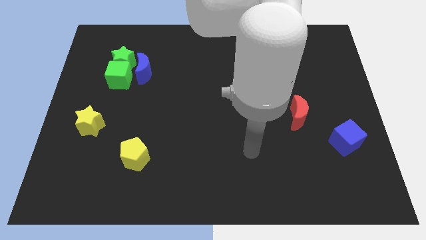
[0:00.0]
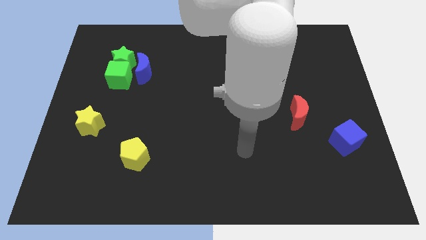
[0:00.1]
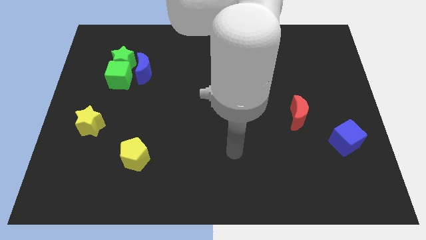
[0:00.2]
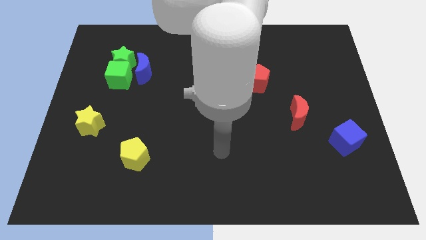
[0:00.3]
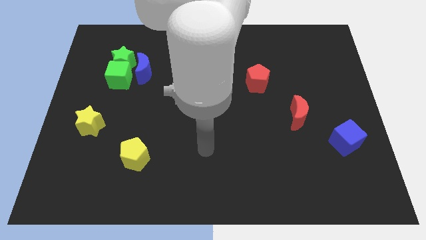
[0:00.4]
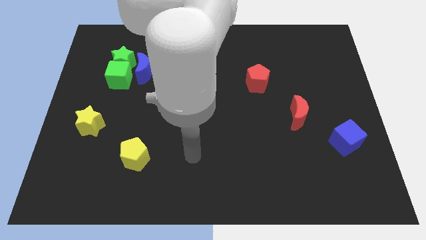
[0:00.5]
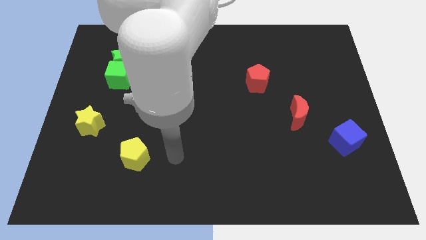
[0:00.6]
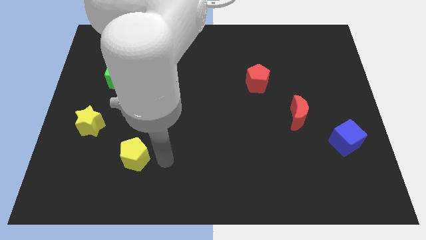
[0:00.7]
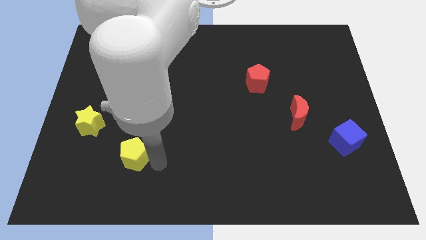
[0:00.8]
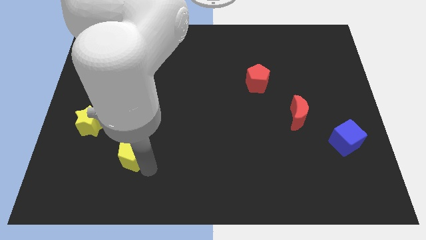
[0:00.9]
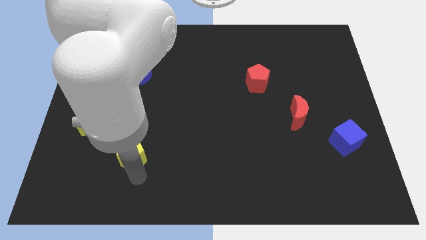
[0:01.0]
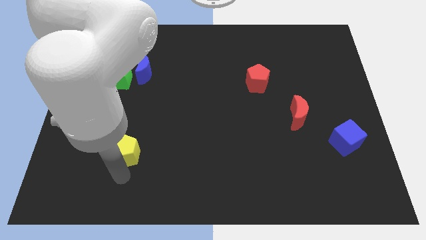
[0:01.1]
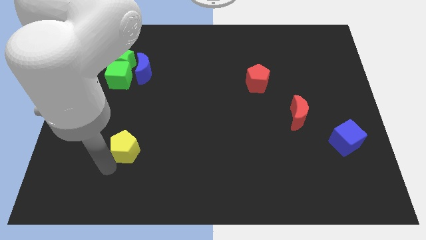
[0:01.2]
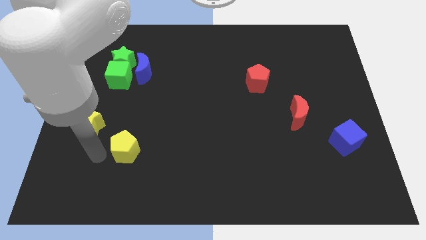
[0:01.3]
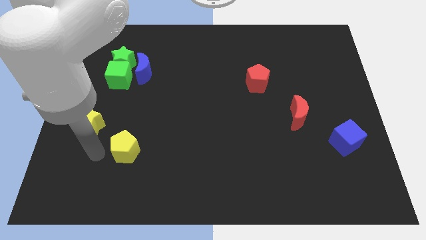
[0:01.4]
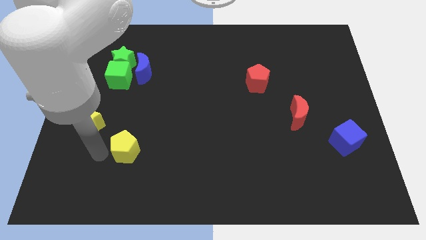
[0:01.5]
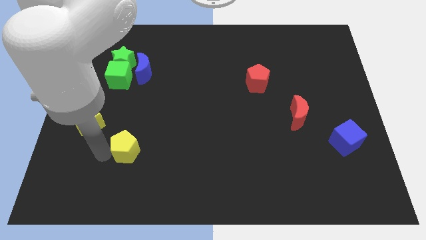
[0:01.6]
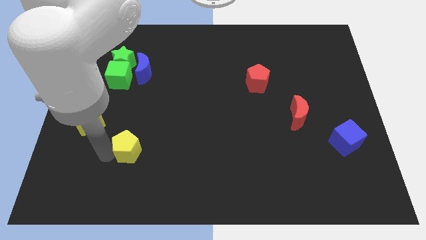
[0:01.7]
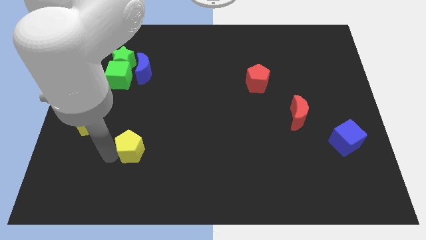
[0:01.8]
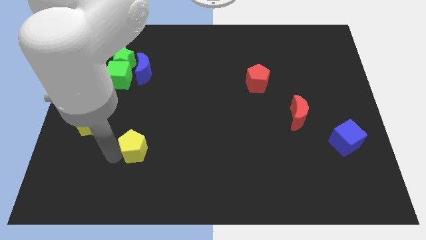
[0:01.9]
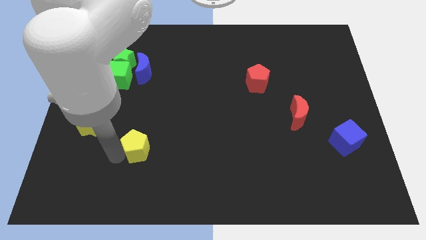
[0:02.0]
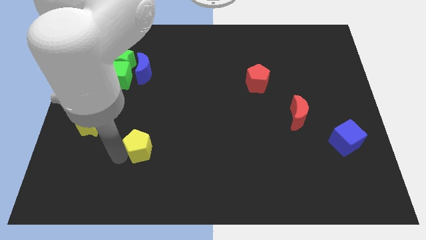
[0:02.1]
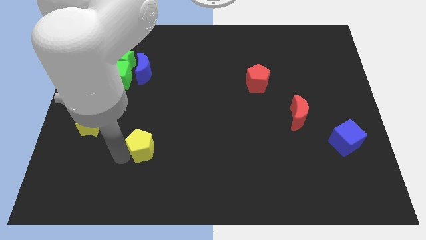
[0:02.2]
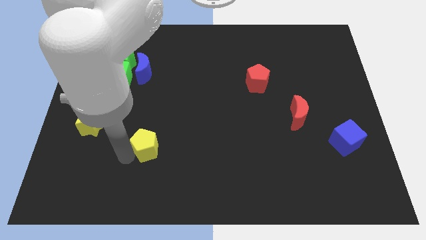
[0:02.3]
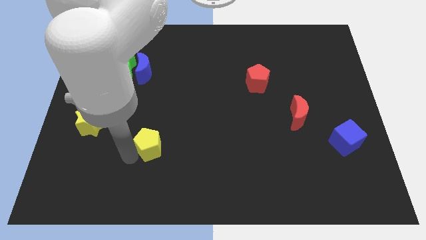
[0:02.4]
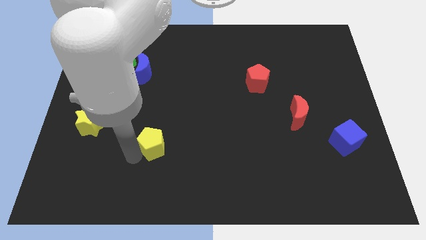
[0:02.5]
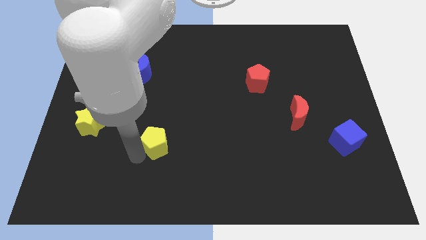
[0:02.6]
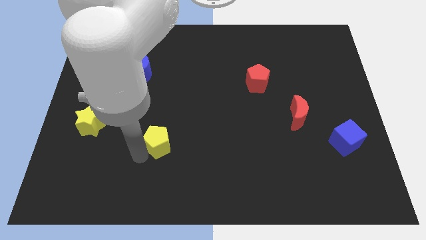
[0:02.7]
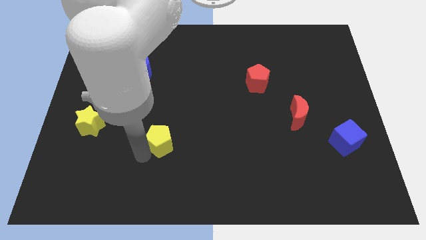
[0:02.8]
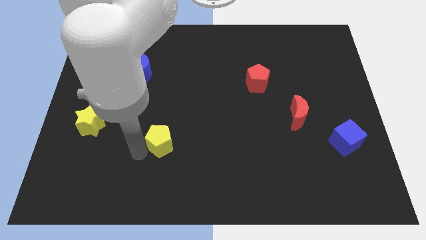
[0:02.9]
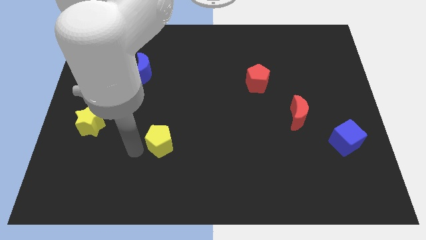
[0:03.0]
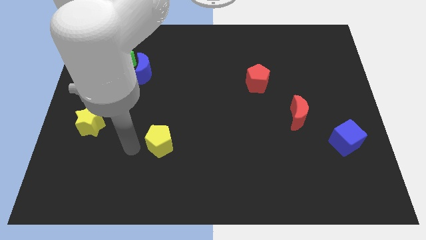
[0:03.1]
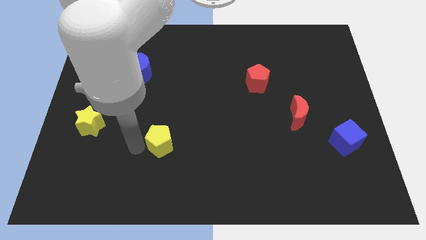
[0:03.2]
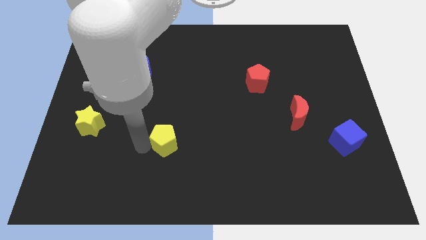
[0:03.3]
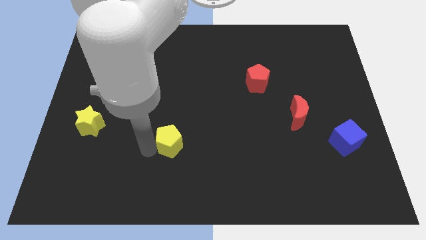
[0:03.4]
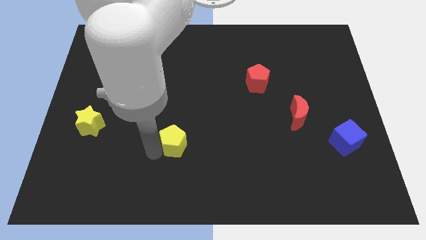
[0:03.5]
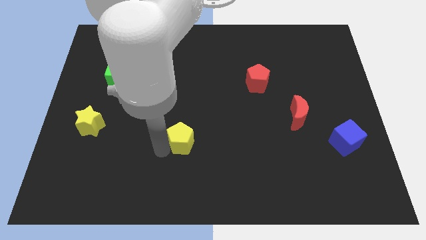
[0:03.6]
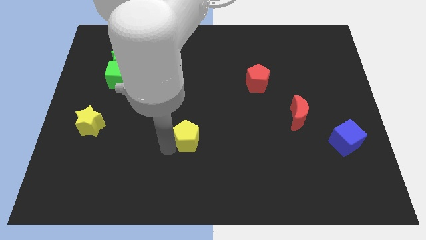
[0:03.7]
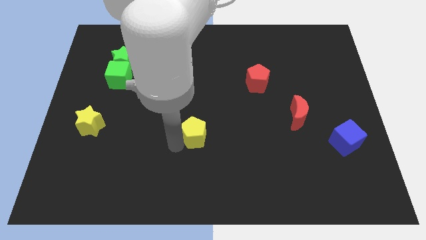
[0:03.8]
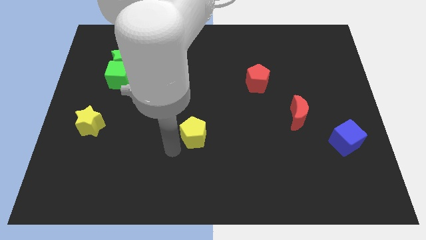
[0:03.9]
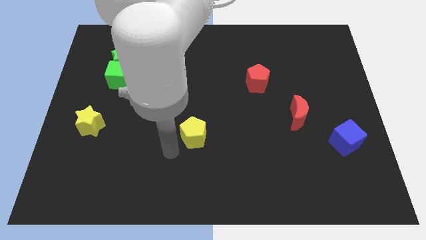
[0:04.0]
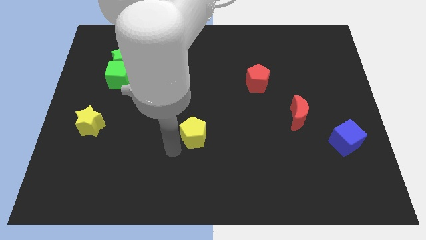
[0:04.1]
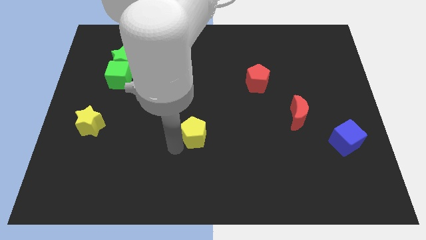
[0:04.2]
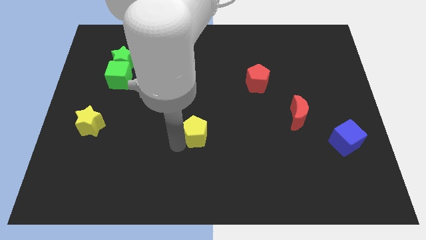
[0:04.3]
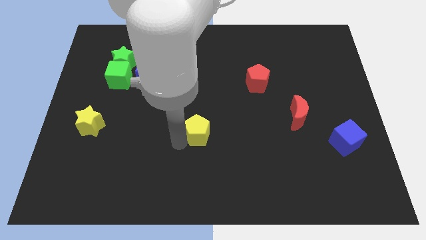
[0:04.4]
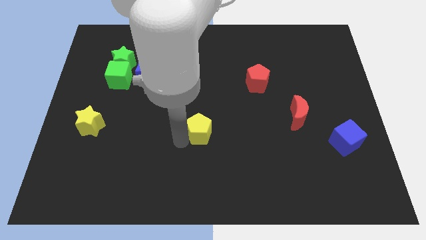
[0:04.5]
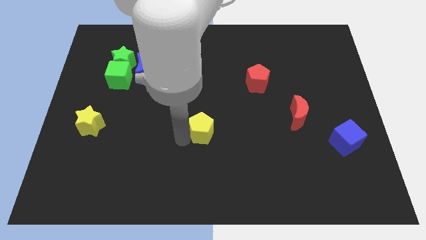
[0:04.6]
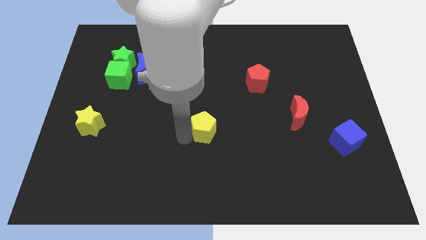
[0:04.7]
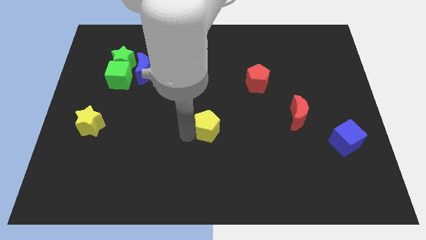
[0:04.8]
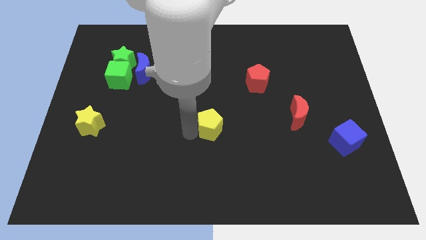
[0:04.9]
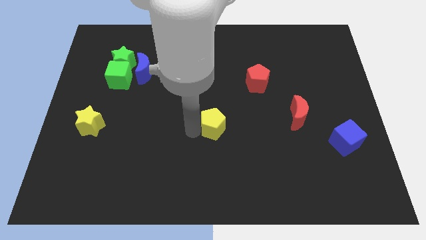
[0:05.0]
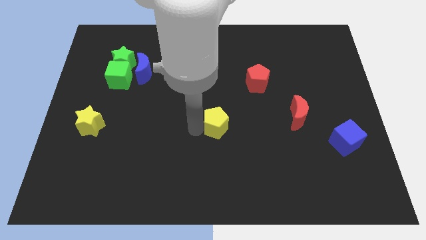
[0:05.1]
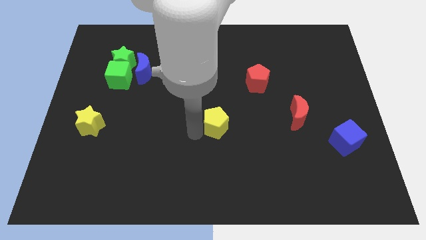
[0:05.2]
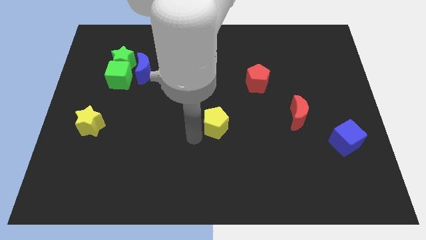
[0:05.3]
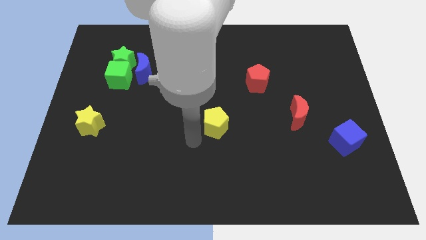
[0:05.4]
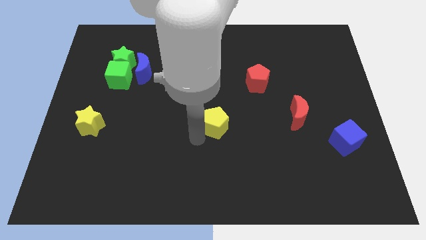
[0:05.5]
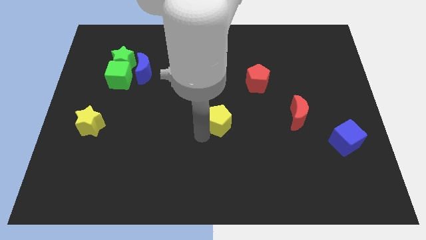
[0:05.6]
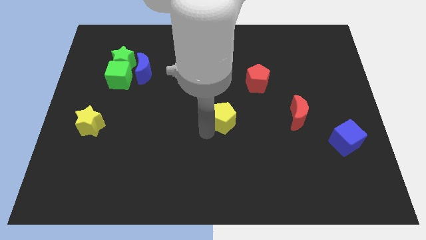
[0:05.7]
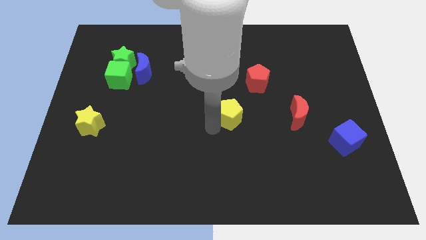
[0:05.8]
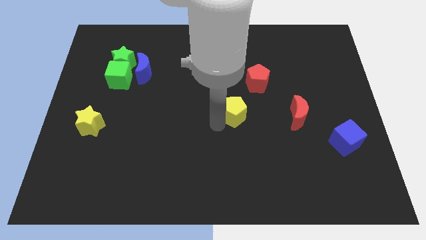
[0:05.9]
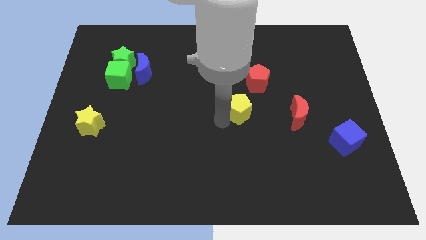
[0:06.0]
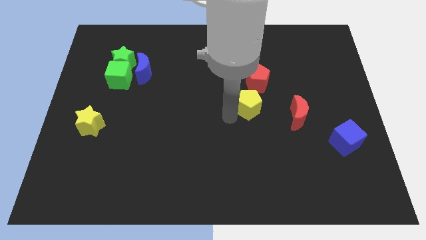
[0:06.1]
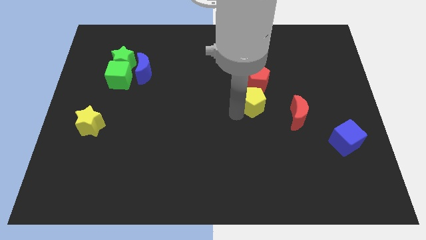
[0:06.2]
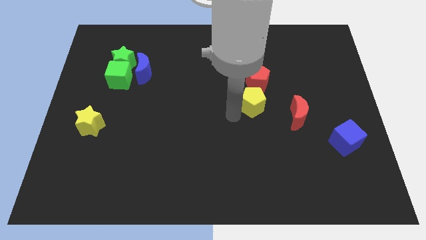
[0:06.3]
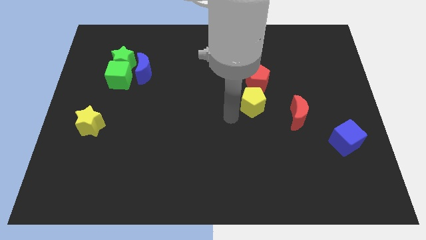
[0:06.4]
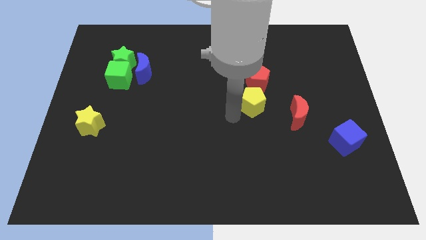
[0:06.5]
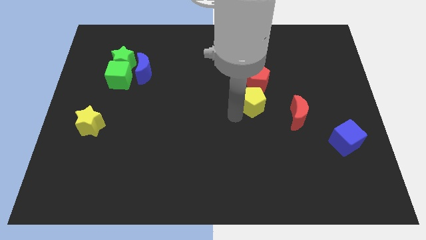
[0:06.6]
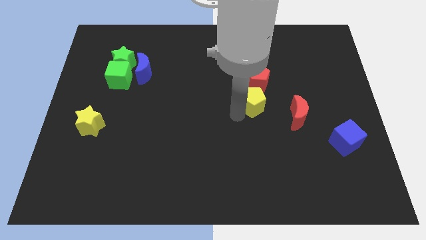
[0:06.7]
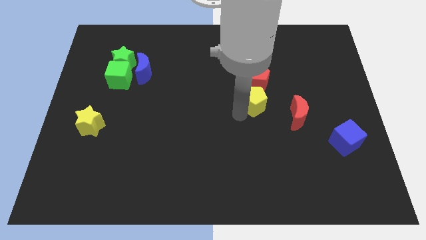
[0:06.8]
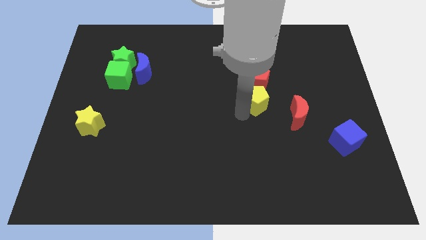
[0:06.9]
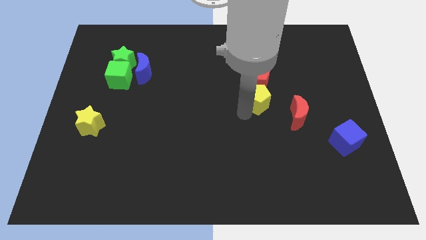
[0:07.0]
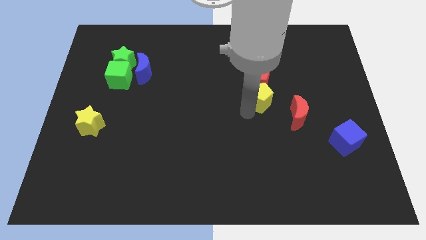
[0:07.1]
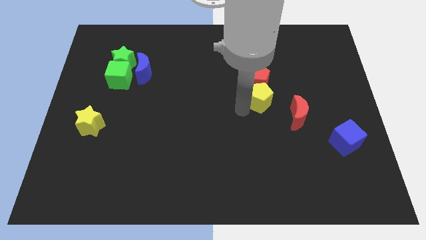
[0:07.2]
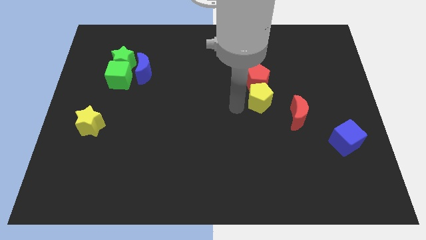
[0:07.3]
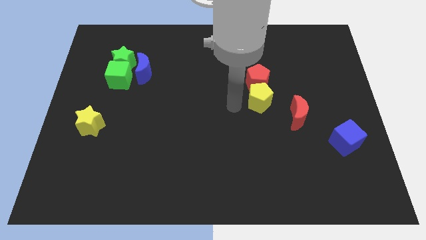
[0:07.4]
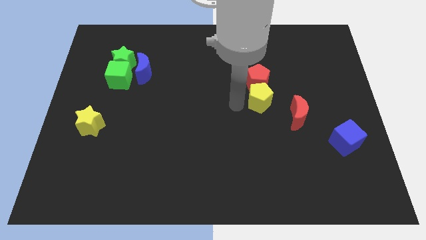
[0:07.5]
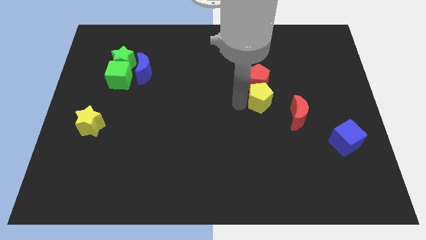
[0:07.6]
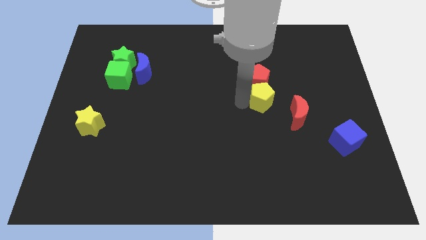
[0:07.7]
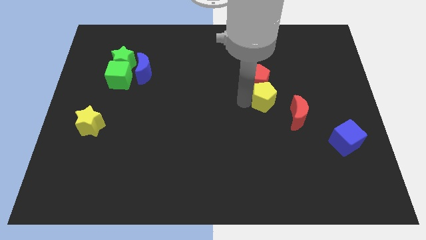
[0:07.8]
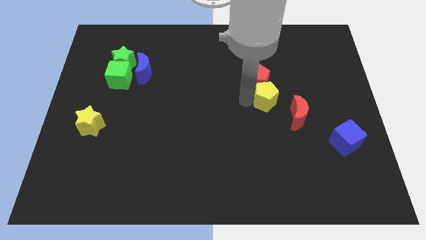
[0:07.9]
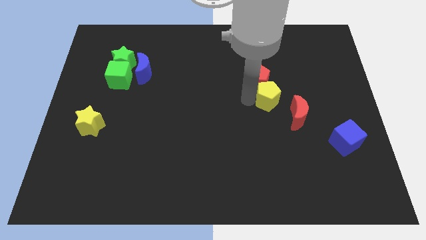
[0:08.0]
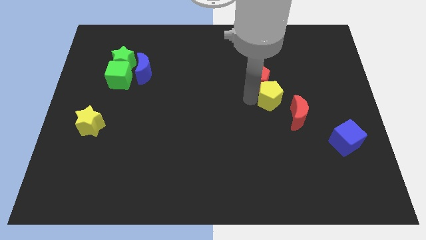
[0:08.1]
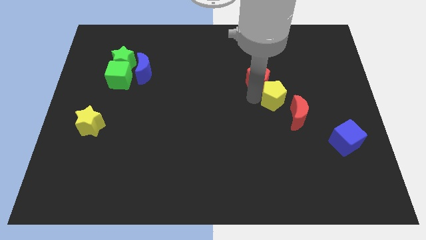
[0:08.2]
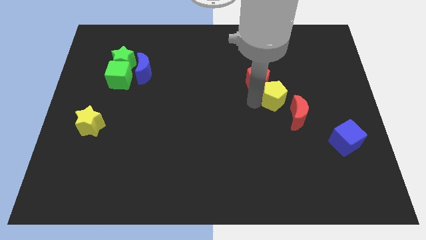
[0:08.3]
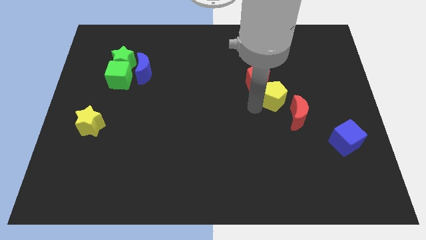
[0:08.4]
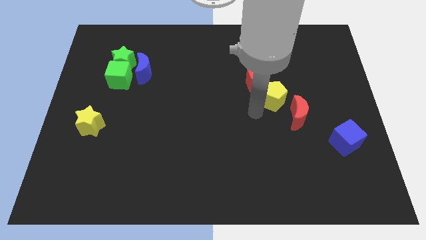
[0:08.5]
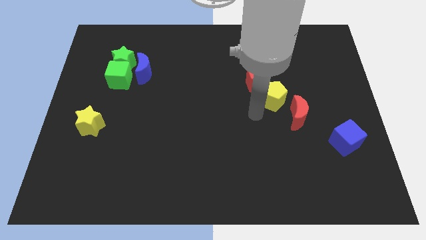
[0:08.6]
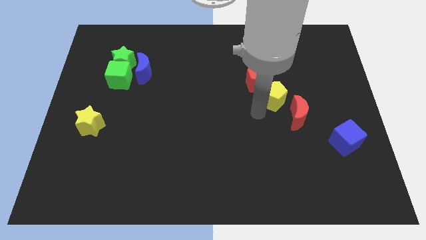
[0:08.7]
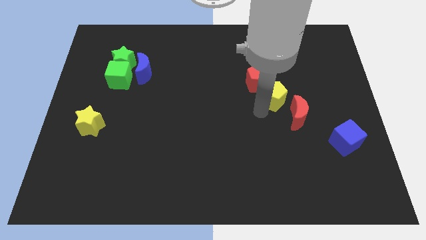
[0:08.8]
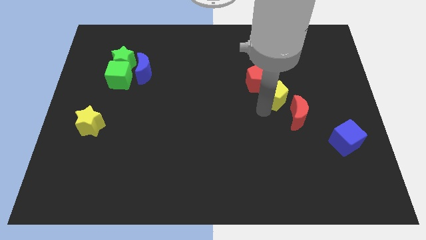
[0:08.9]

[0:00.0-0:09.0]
slide the yellow pentagon to the top of the red moon
